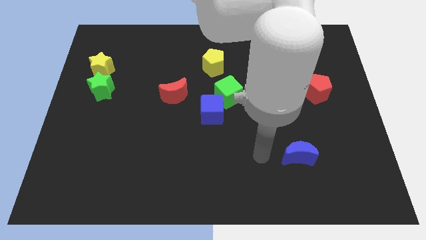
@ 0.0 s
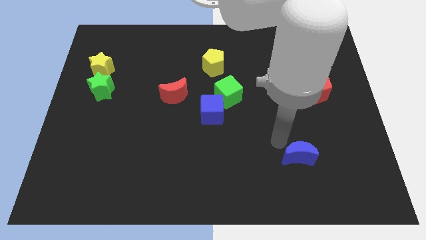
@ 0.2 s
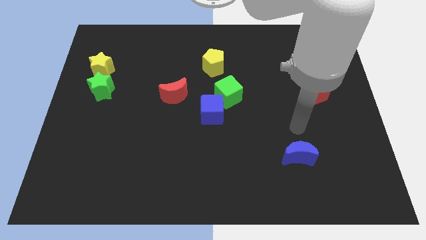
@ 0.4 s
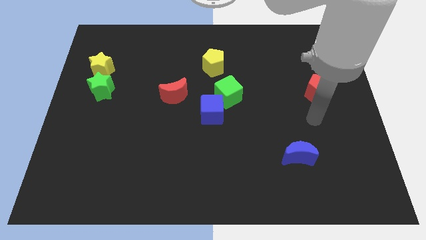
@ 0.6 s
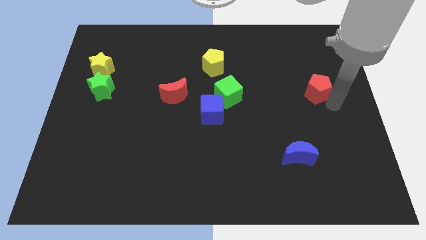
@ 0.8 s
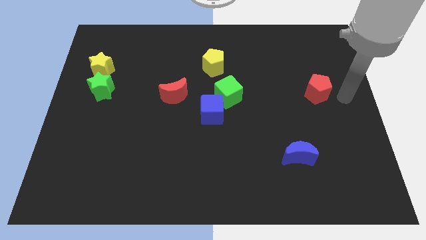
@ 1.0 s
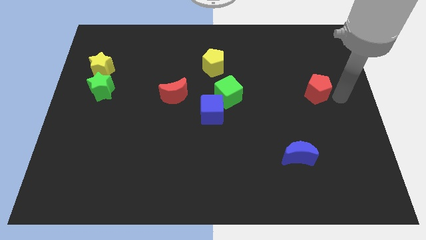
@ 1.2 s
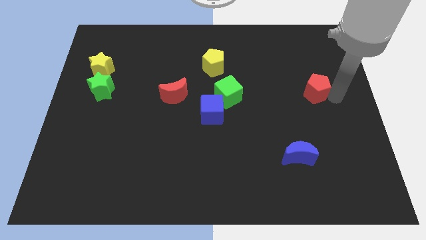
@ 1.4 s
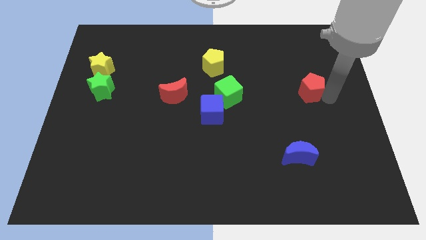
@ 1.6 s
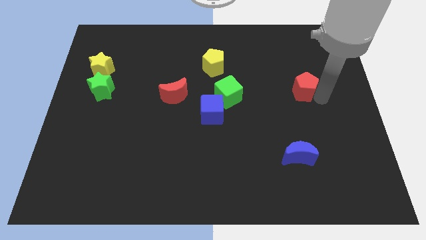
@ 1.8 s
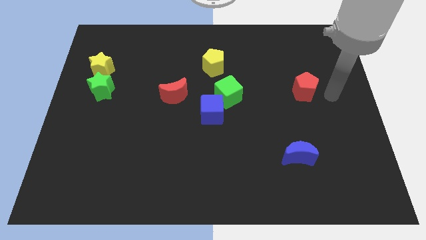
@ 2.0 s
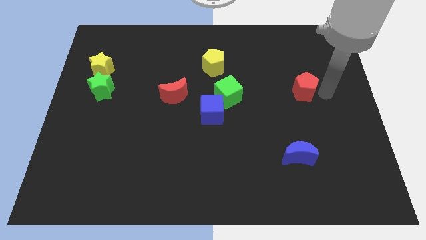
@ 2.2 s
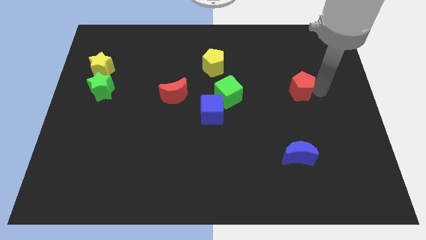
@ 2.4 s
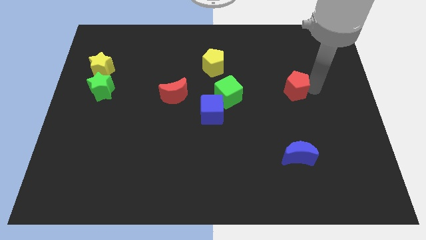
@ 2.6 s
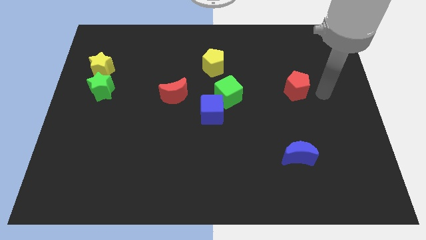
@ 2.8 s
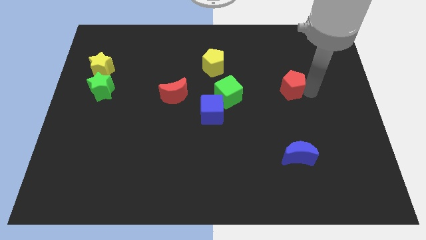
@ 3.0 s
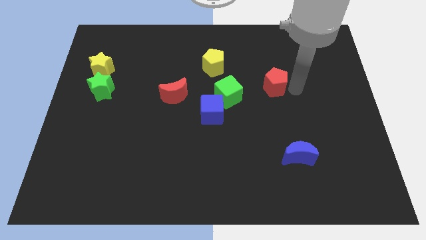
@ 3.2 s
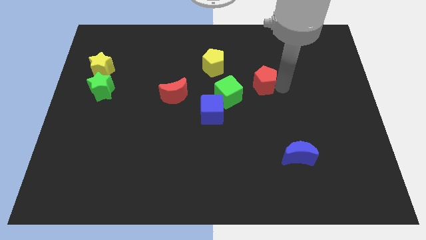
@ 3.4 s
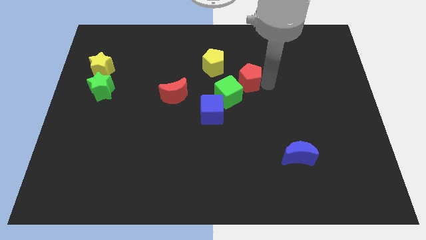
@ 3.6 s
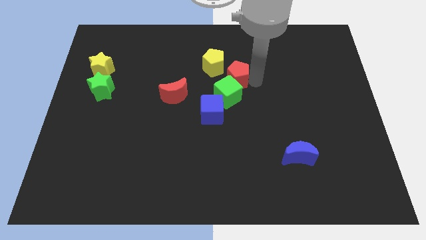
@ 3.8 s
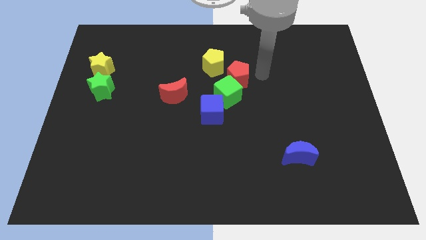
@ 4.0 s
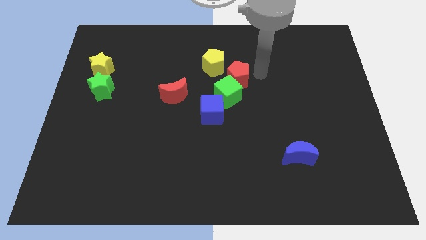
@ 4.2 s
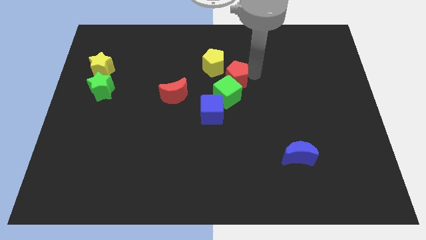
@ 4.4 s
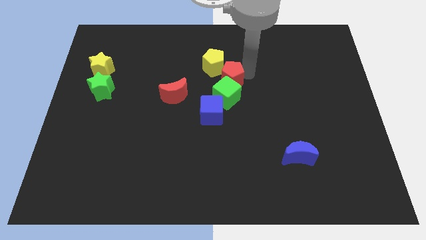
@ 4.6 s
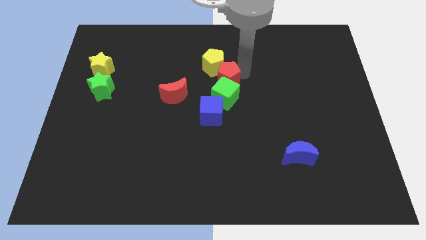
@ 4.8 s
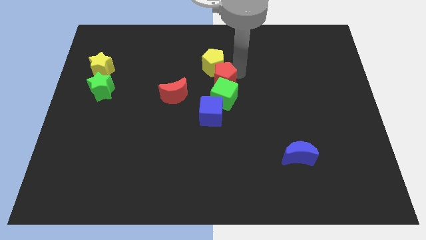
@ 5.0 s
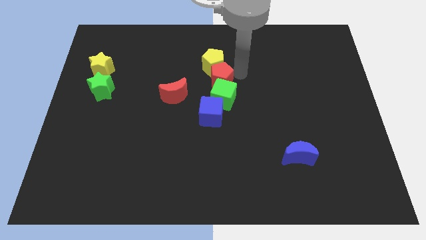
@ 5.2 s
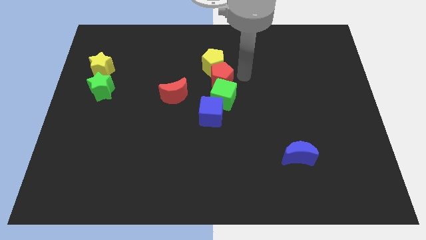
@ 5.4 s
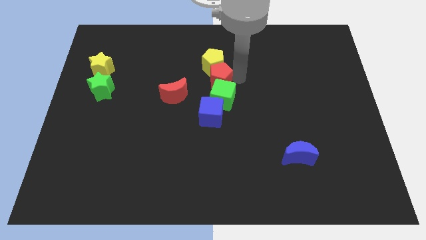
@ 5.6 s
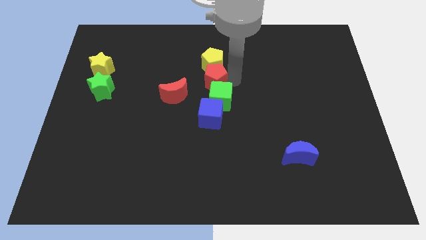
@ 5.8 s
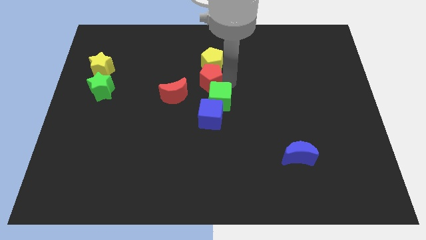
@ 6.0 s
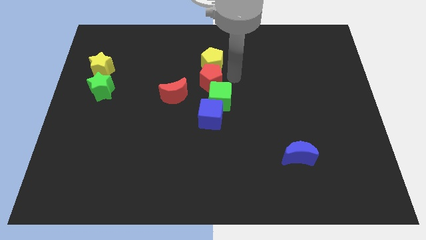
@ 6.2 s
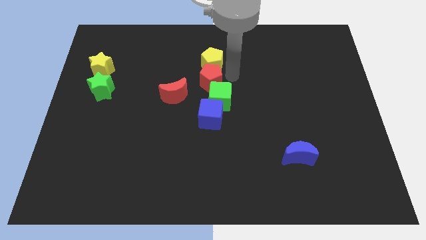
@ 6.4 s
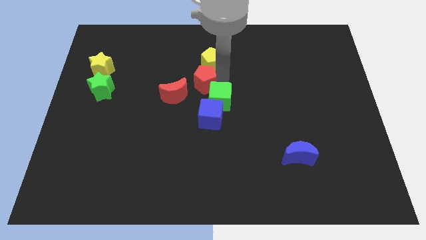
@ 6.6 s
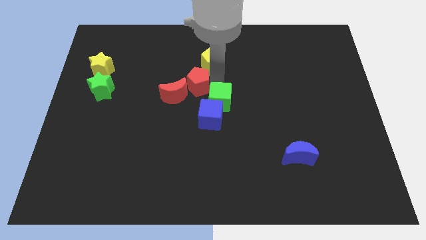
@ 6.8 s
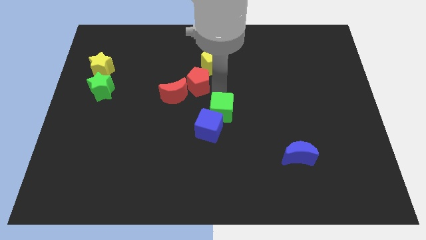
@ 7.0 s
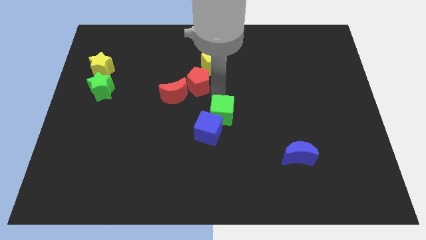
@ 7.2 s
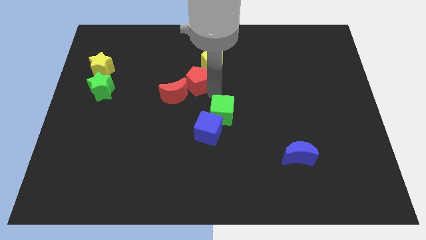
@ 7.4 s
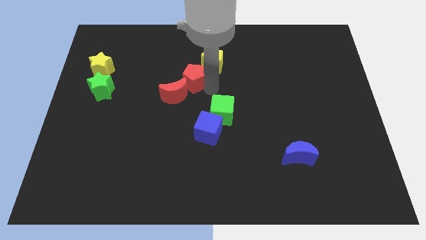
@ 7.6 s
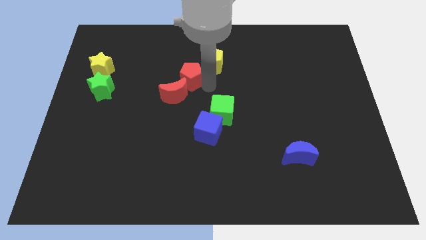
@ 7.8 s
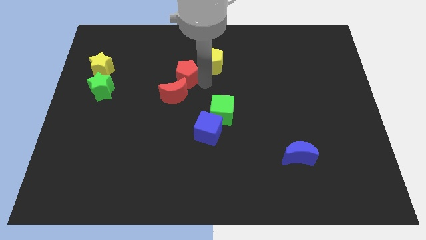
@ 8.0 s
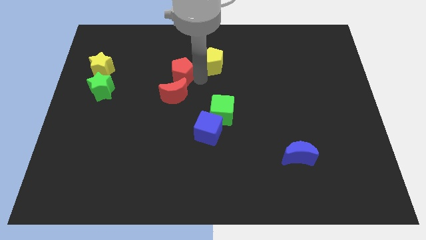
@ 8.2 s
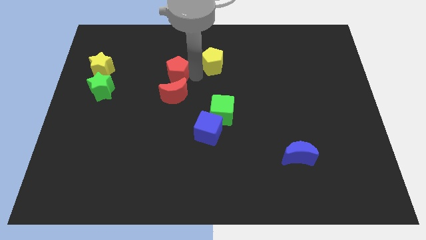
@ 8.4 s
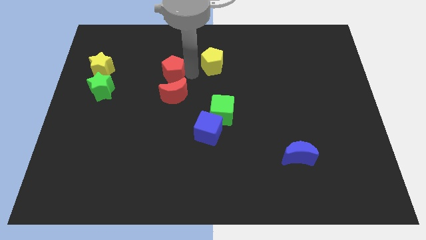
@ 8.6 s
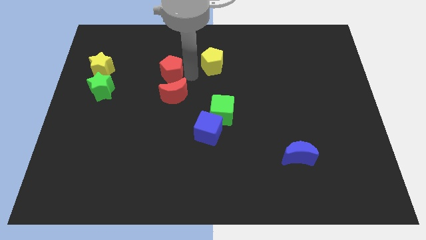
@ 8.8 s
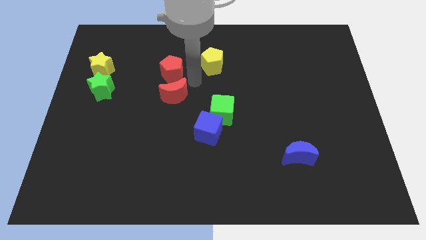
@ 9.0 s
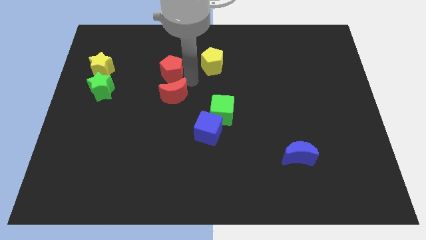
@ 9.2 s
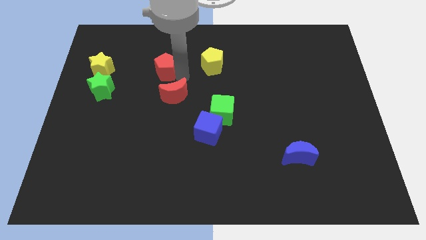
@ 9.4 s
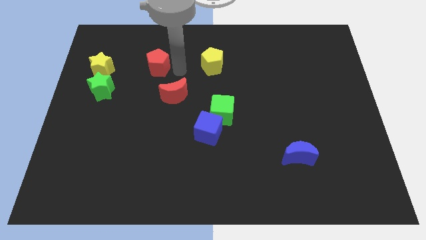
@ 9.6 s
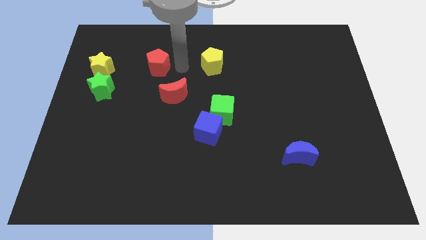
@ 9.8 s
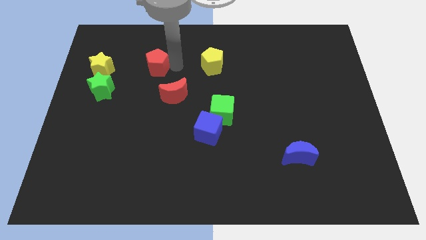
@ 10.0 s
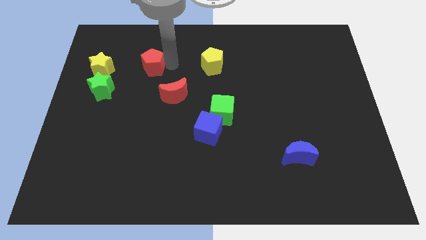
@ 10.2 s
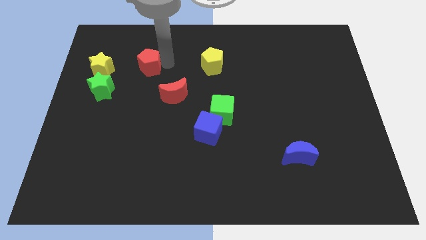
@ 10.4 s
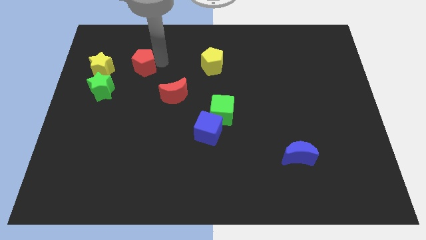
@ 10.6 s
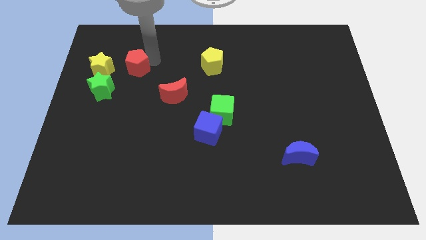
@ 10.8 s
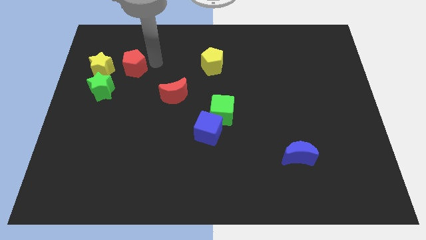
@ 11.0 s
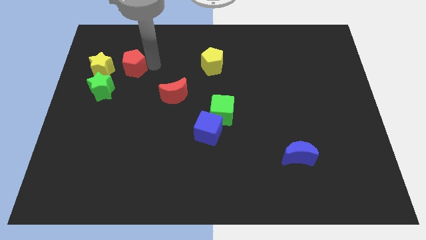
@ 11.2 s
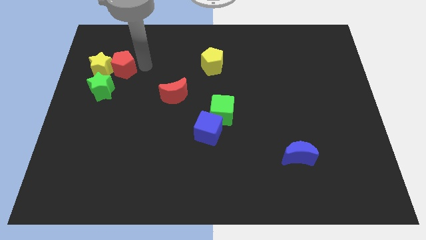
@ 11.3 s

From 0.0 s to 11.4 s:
push the red pentagon close to the yellow star

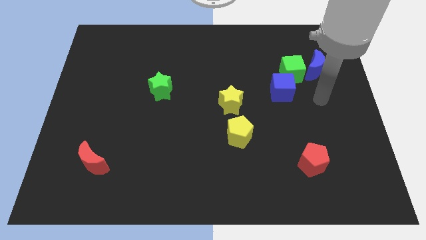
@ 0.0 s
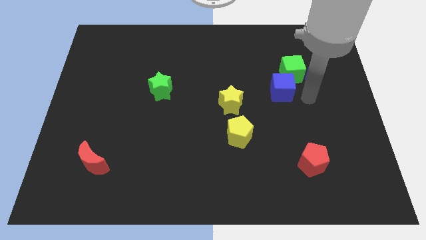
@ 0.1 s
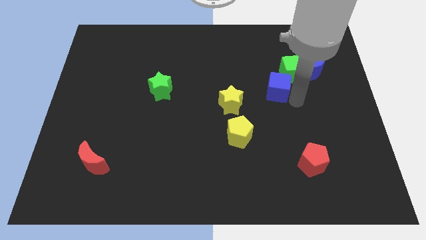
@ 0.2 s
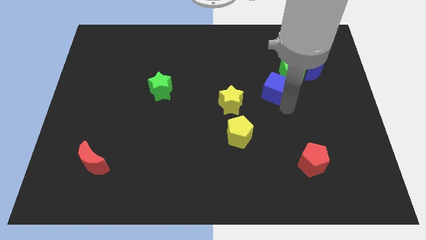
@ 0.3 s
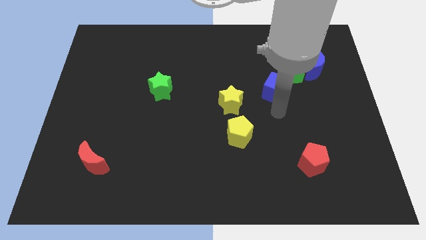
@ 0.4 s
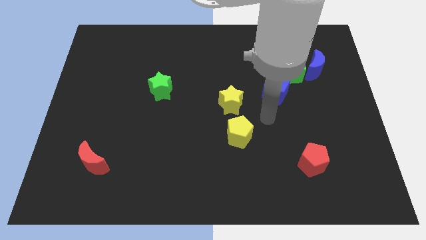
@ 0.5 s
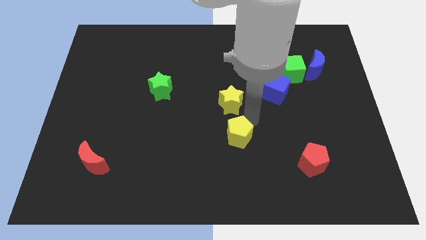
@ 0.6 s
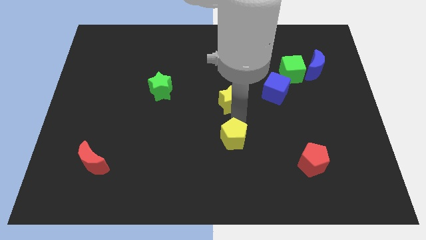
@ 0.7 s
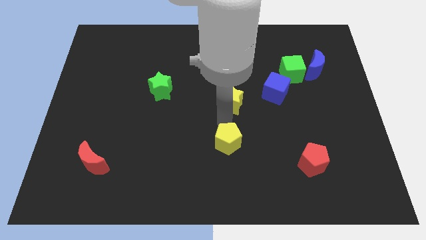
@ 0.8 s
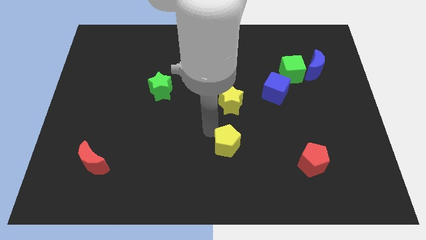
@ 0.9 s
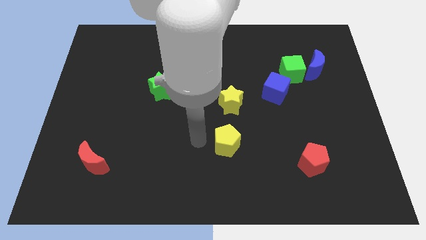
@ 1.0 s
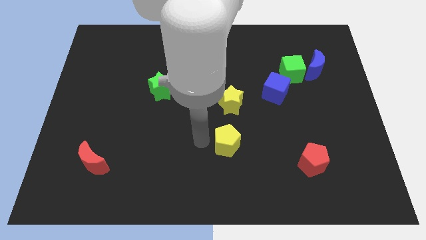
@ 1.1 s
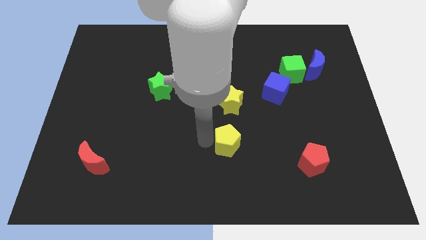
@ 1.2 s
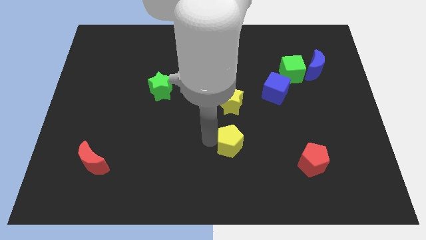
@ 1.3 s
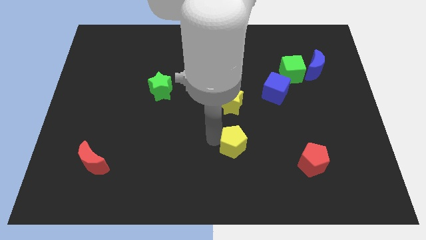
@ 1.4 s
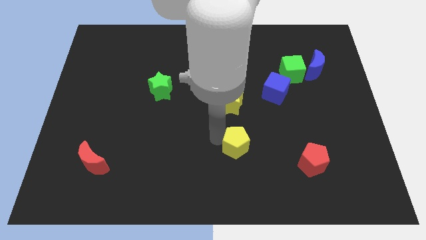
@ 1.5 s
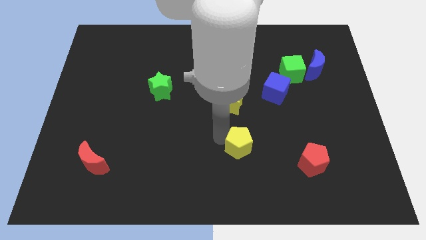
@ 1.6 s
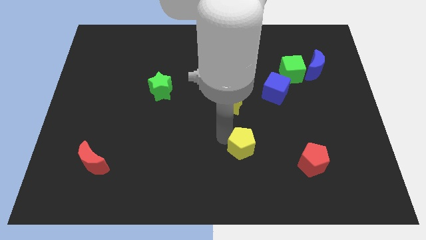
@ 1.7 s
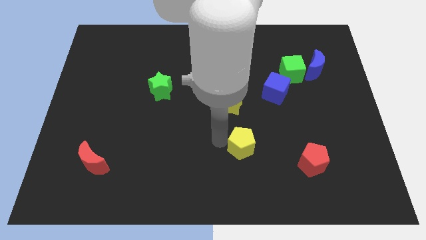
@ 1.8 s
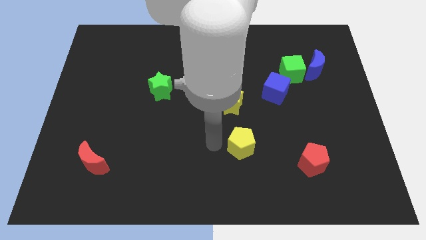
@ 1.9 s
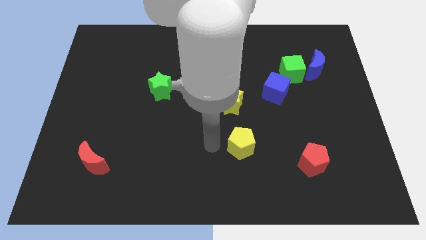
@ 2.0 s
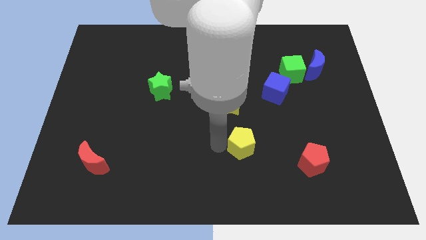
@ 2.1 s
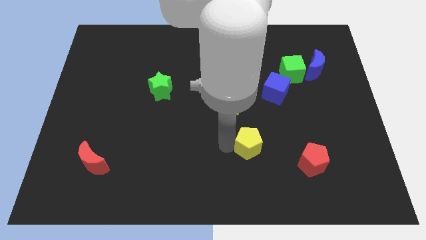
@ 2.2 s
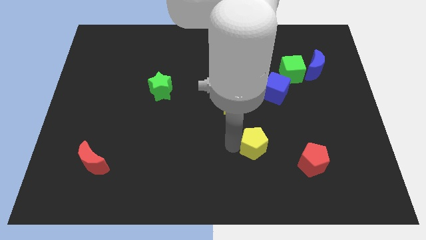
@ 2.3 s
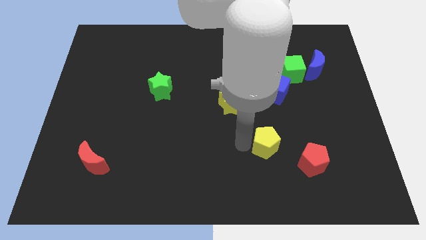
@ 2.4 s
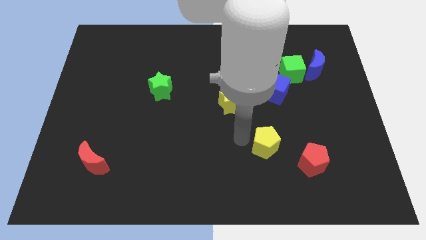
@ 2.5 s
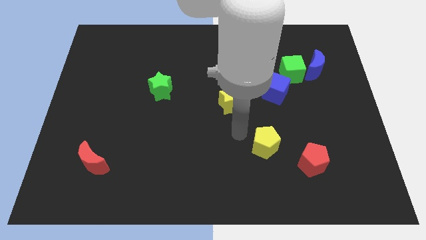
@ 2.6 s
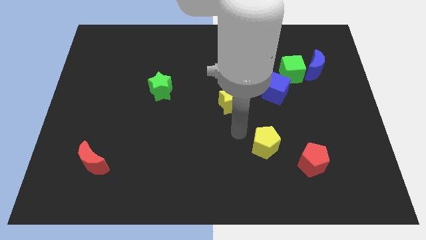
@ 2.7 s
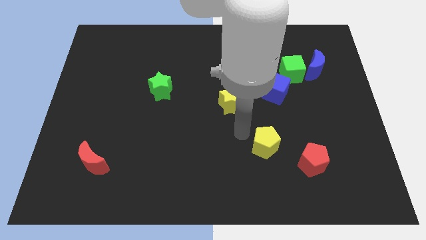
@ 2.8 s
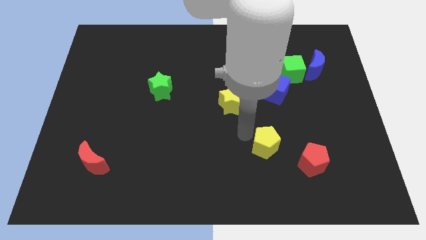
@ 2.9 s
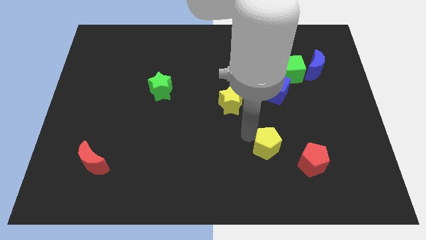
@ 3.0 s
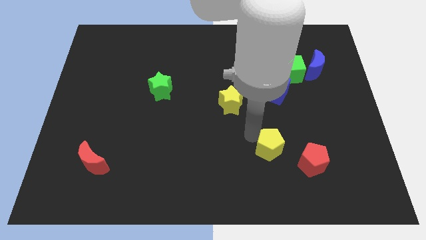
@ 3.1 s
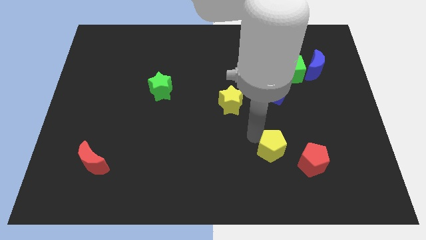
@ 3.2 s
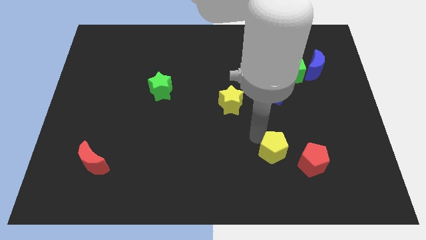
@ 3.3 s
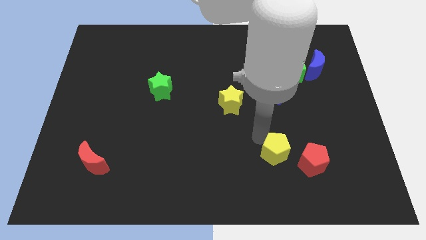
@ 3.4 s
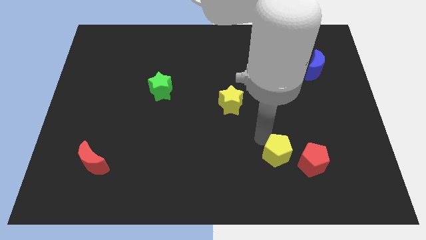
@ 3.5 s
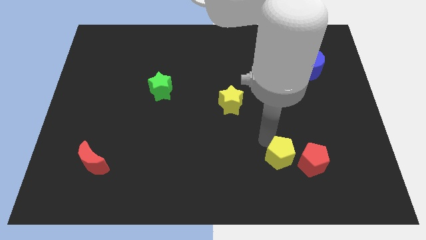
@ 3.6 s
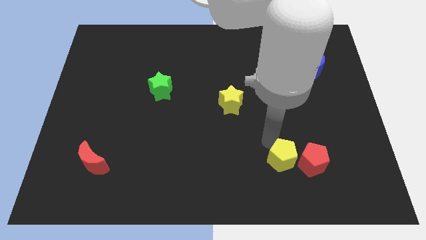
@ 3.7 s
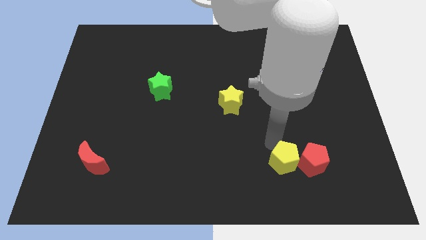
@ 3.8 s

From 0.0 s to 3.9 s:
slide the yellow pentagon next to the red pentagon
